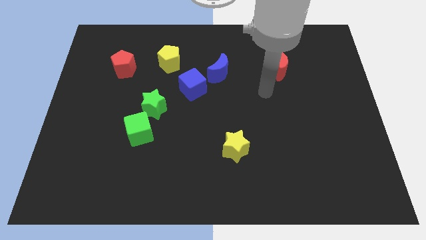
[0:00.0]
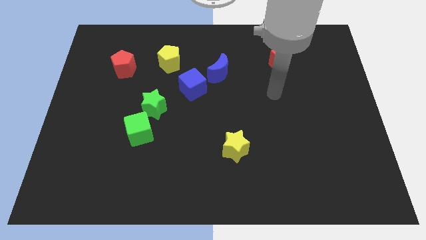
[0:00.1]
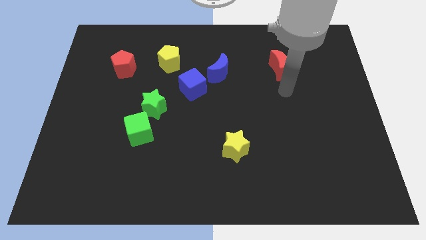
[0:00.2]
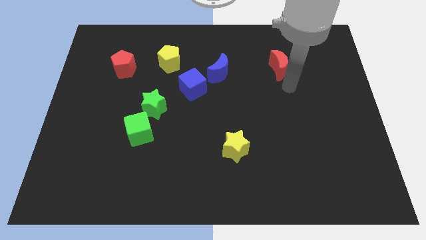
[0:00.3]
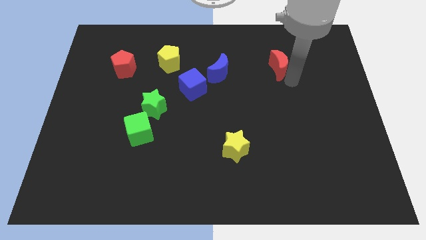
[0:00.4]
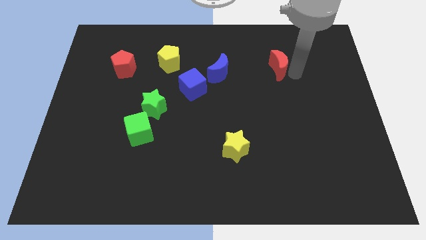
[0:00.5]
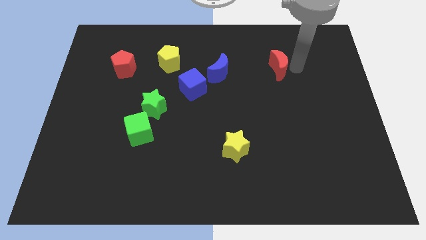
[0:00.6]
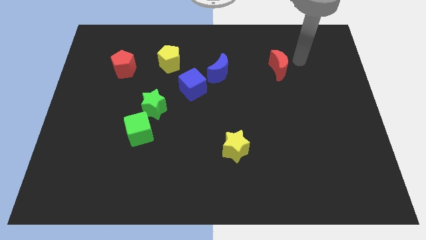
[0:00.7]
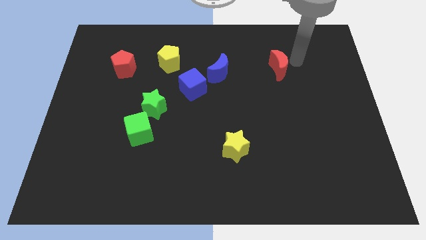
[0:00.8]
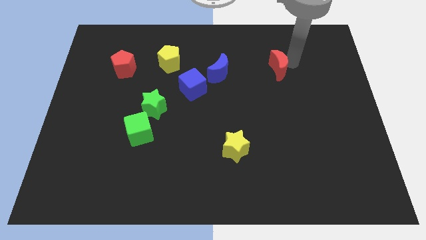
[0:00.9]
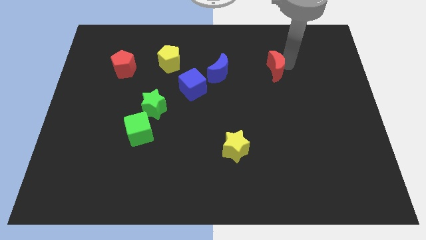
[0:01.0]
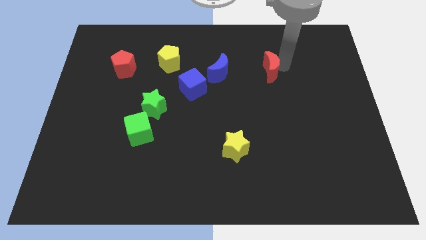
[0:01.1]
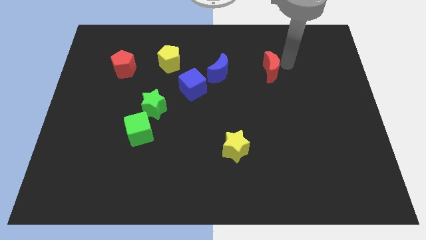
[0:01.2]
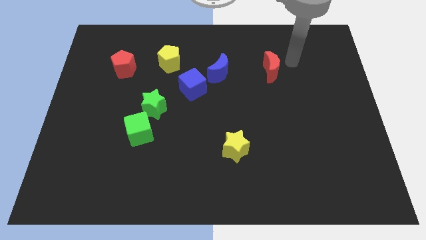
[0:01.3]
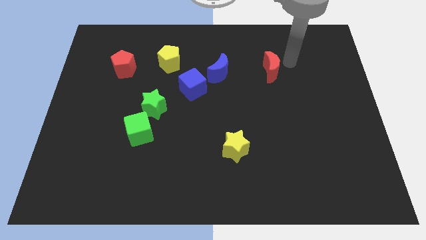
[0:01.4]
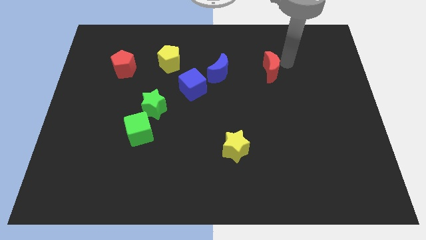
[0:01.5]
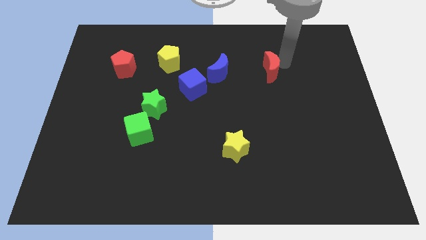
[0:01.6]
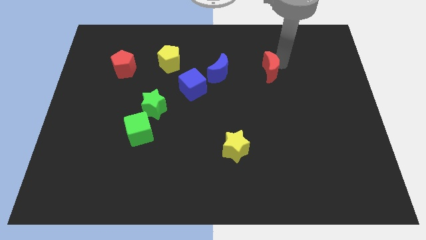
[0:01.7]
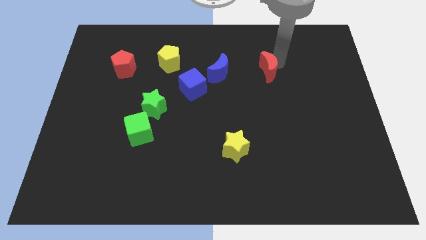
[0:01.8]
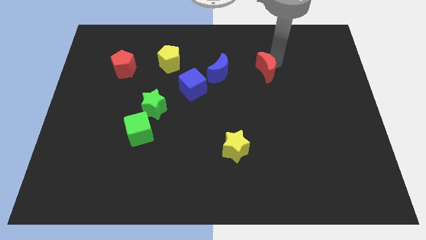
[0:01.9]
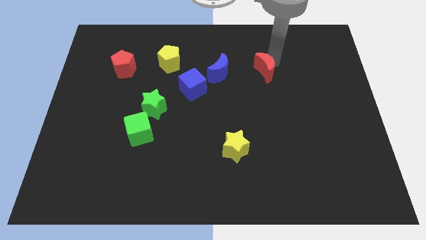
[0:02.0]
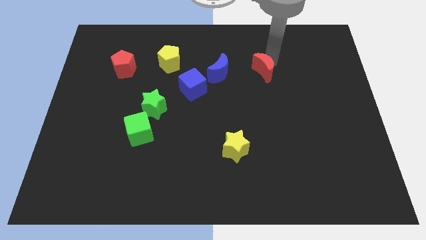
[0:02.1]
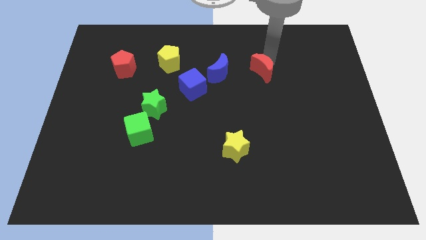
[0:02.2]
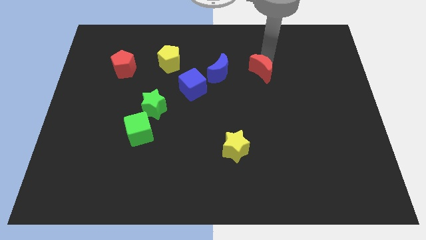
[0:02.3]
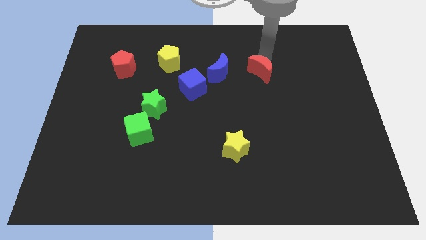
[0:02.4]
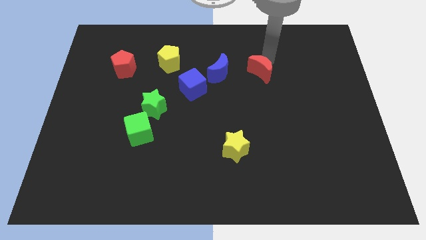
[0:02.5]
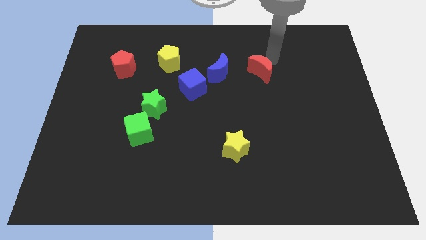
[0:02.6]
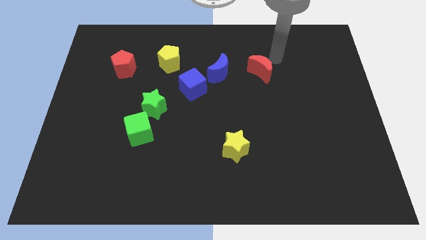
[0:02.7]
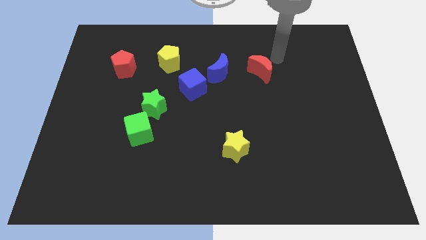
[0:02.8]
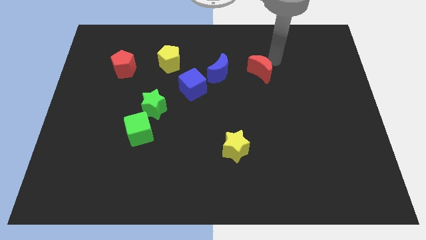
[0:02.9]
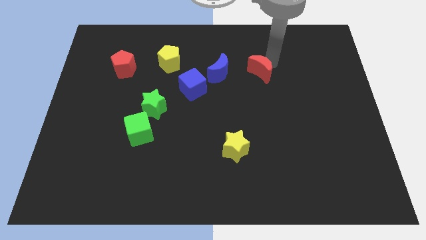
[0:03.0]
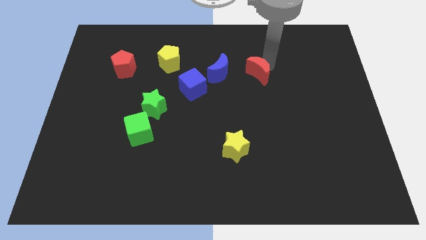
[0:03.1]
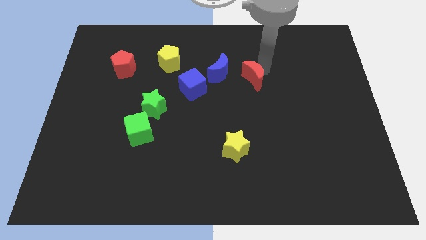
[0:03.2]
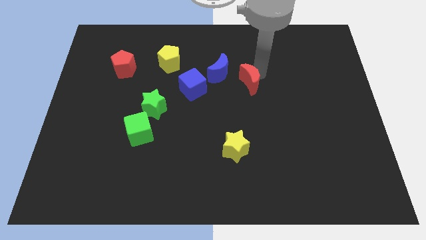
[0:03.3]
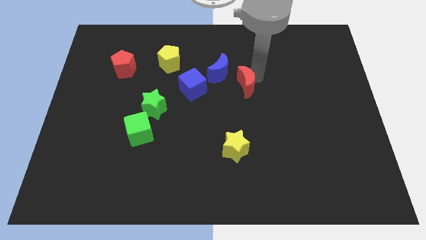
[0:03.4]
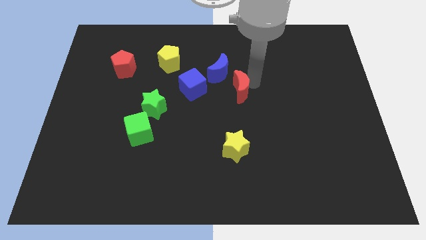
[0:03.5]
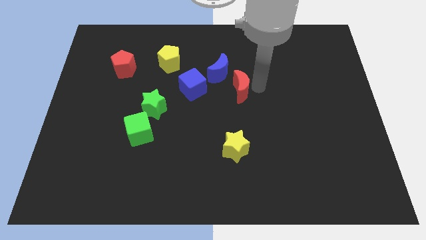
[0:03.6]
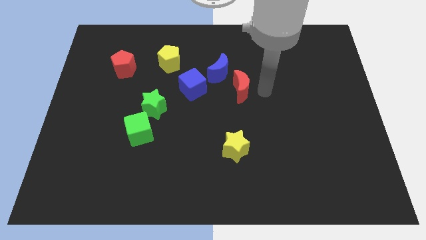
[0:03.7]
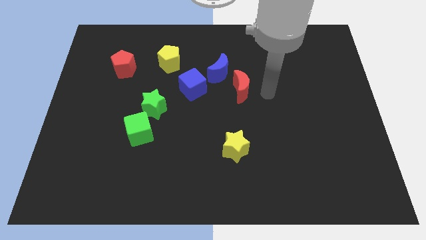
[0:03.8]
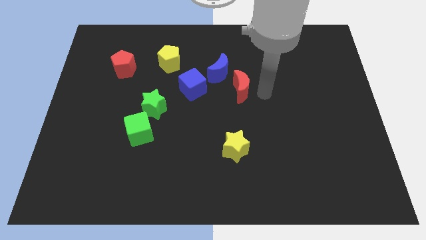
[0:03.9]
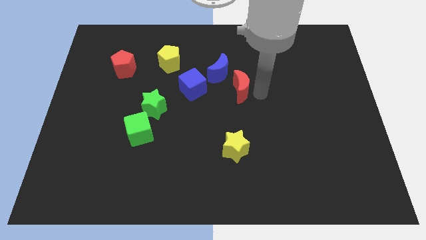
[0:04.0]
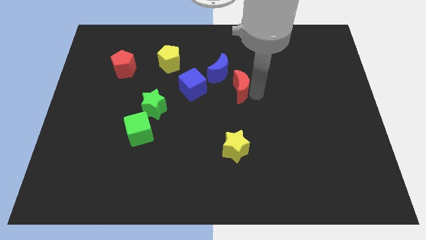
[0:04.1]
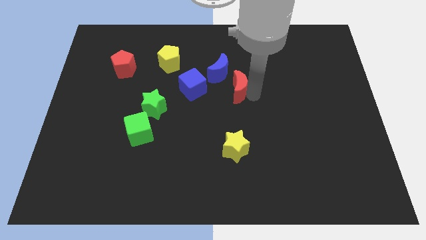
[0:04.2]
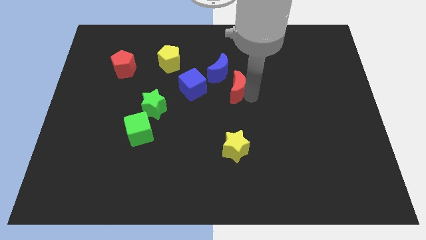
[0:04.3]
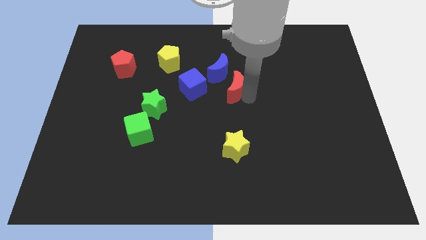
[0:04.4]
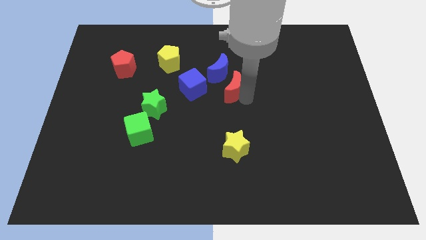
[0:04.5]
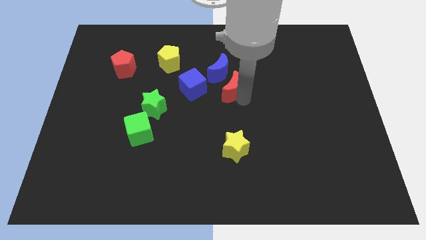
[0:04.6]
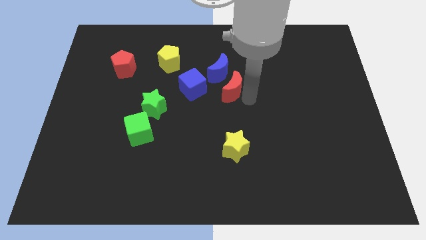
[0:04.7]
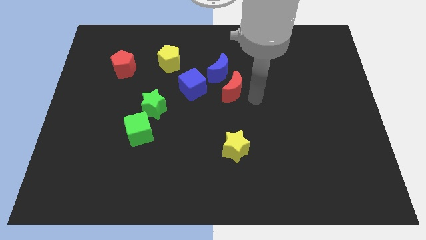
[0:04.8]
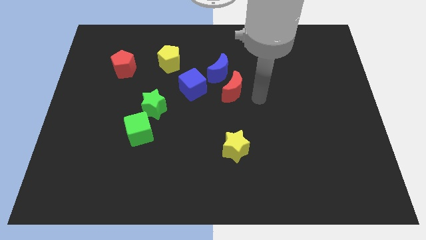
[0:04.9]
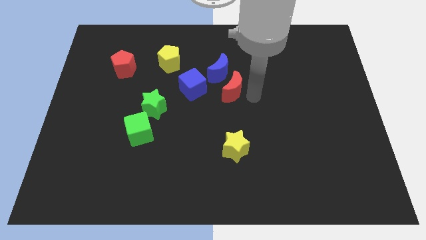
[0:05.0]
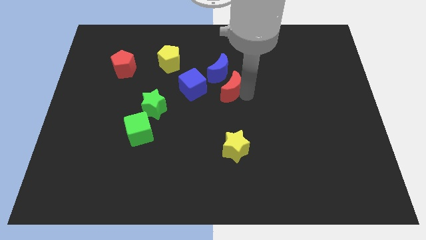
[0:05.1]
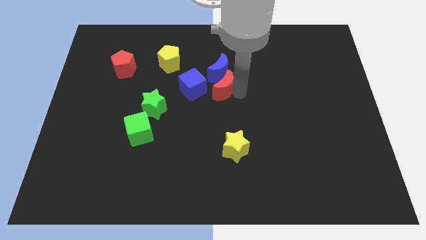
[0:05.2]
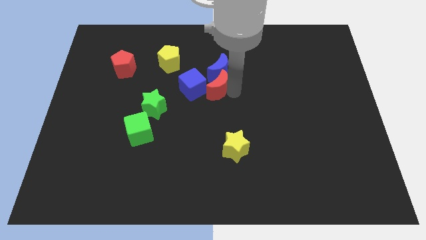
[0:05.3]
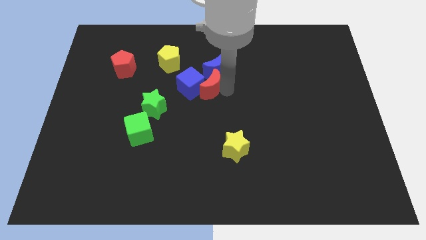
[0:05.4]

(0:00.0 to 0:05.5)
put the red moon next to the blue cube

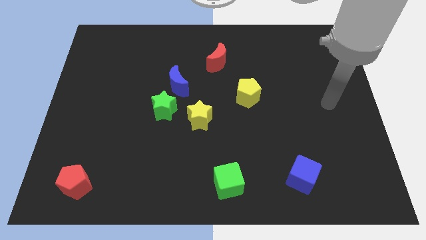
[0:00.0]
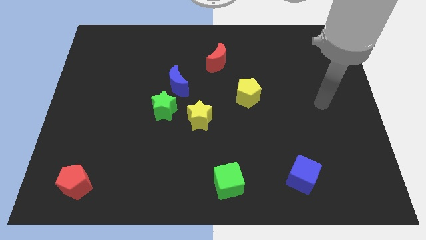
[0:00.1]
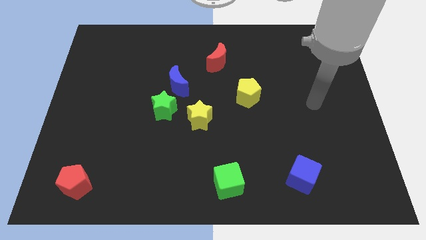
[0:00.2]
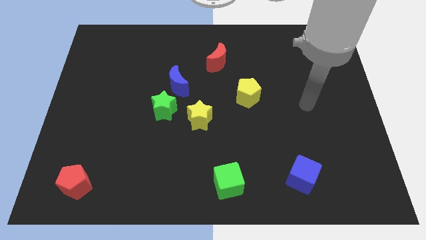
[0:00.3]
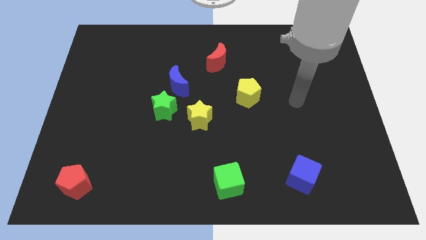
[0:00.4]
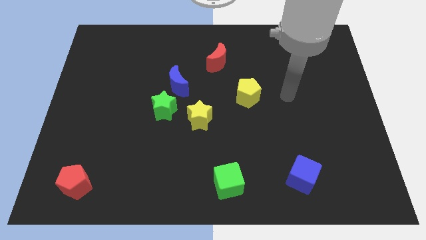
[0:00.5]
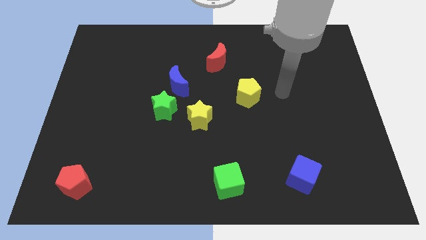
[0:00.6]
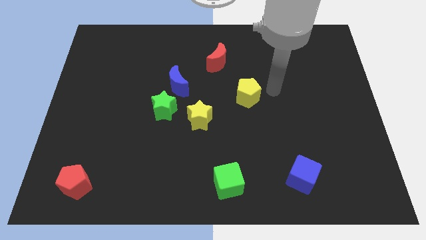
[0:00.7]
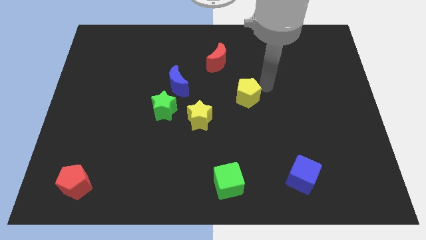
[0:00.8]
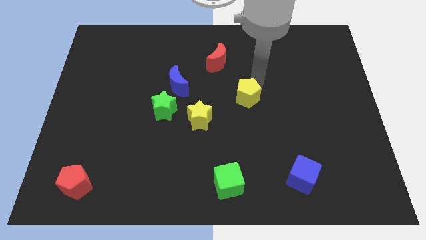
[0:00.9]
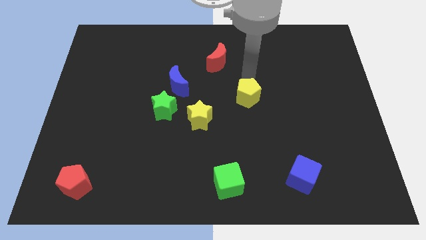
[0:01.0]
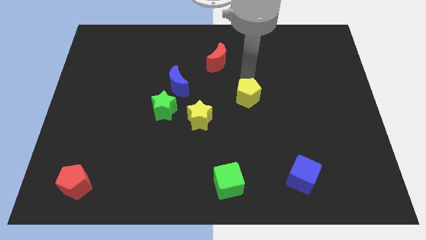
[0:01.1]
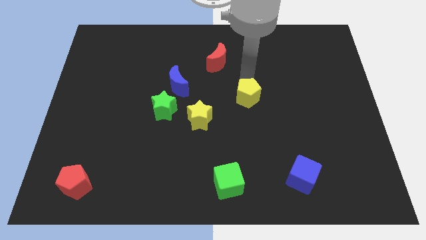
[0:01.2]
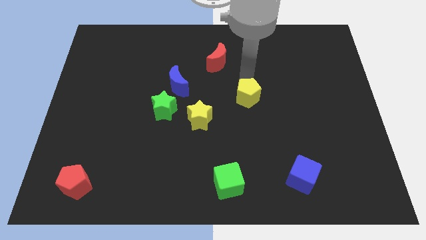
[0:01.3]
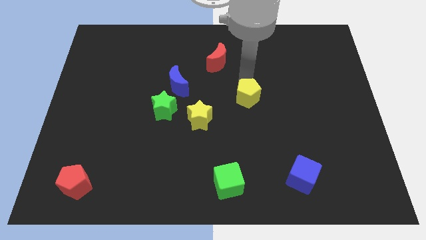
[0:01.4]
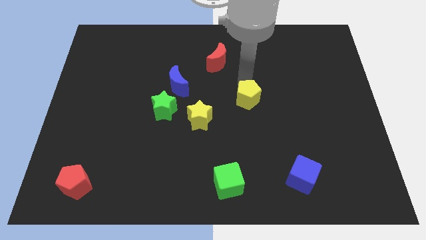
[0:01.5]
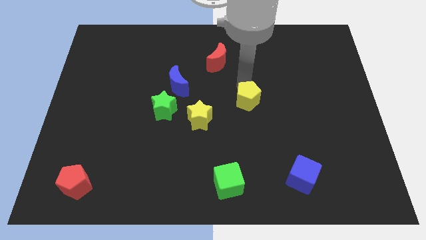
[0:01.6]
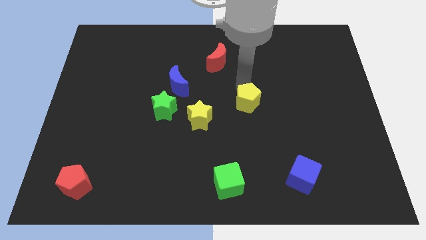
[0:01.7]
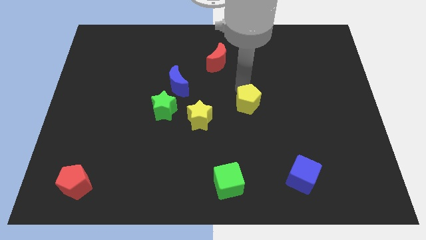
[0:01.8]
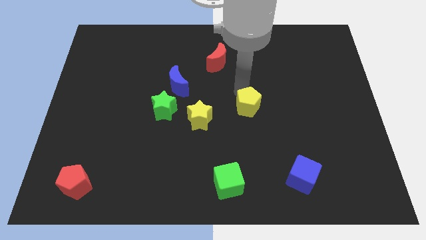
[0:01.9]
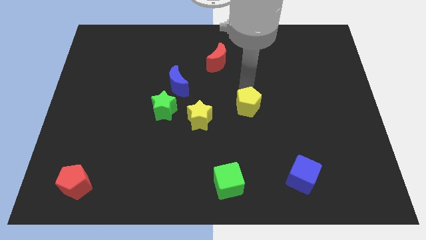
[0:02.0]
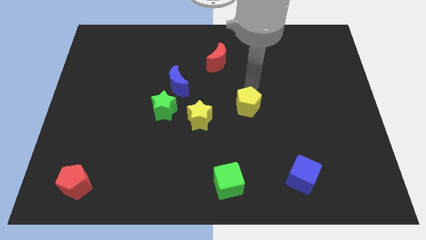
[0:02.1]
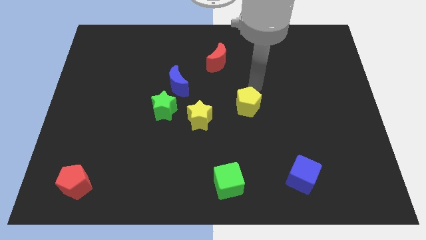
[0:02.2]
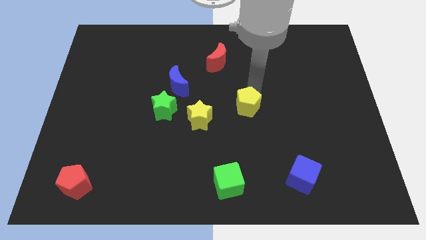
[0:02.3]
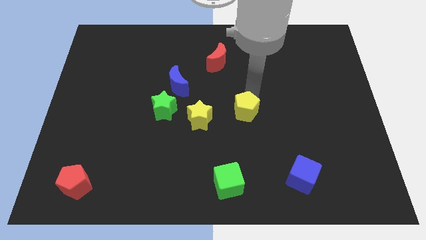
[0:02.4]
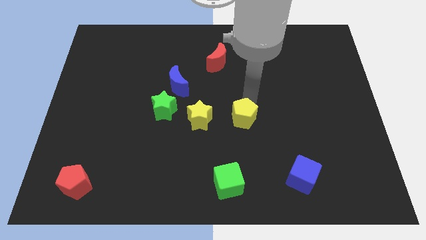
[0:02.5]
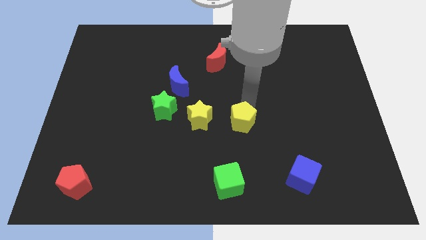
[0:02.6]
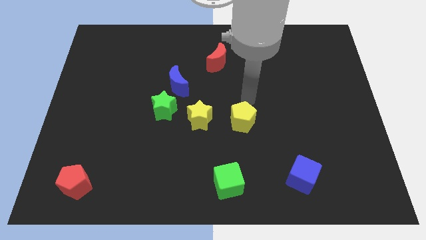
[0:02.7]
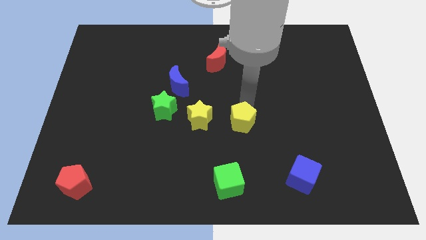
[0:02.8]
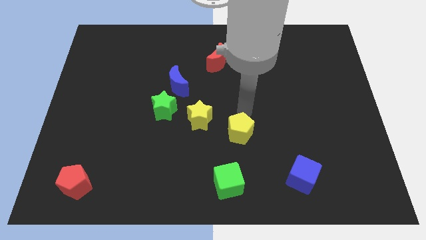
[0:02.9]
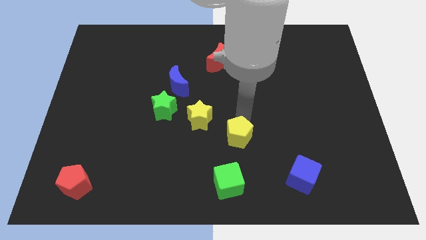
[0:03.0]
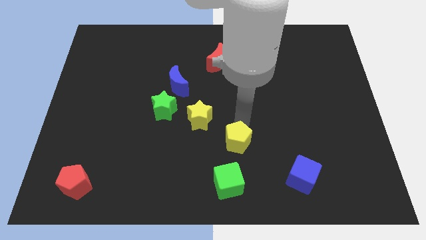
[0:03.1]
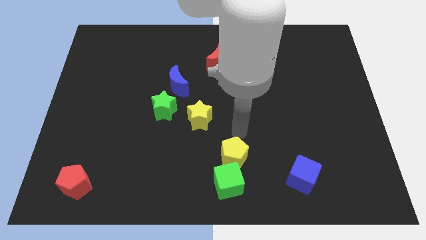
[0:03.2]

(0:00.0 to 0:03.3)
push the yellow pentagon towards the green cube
